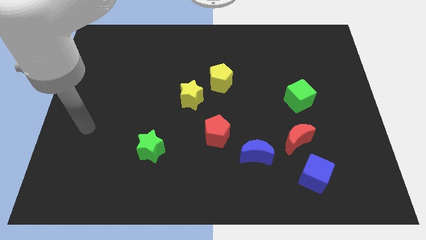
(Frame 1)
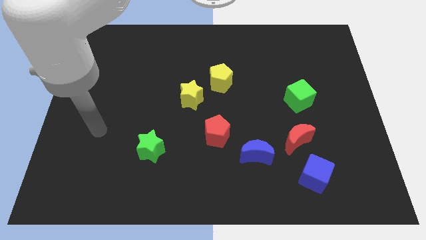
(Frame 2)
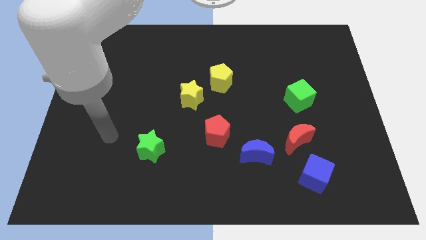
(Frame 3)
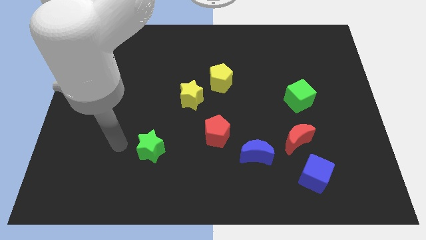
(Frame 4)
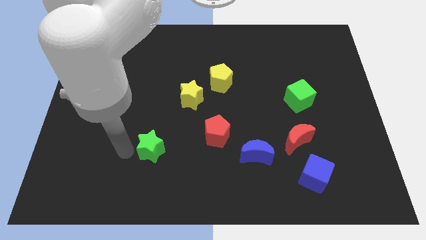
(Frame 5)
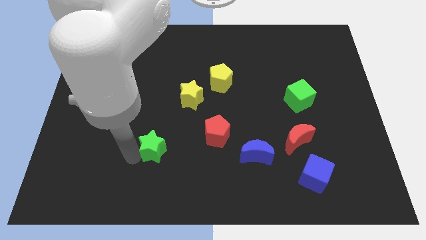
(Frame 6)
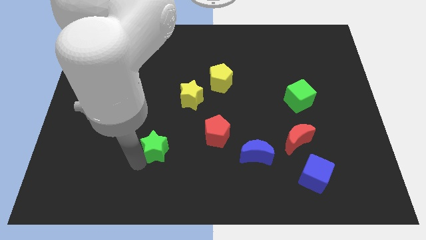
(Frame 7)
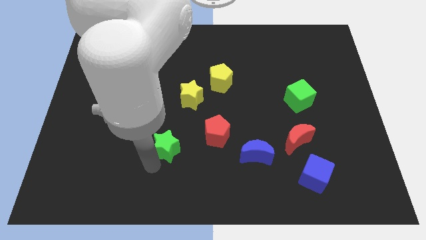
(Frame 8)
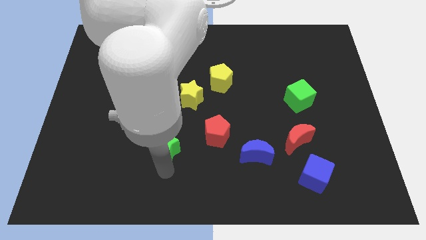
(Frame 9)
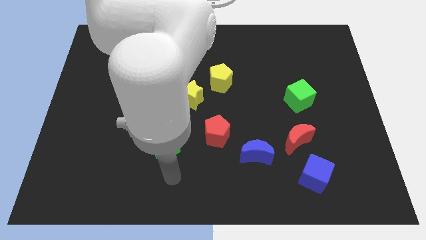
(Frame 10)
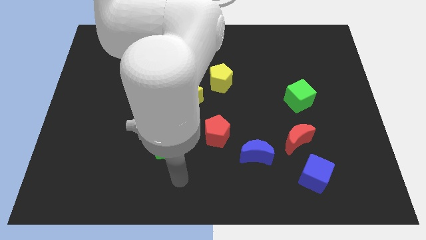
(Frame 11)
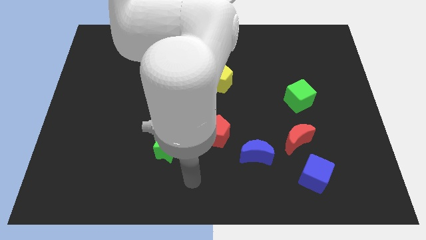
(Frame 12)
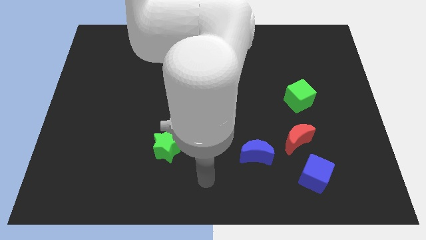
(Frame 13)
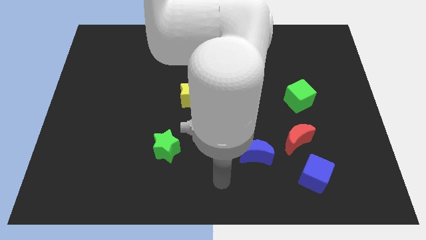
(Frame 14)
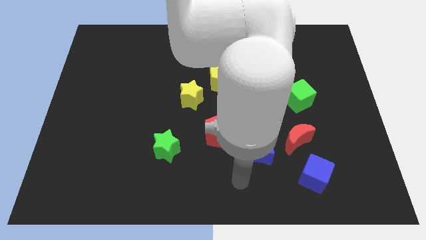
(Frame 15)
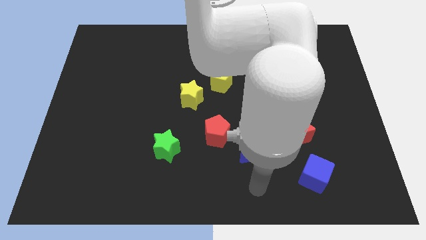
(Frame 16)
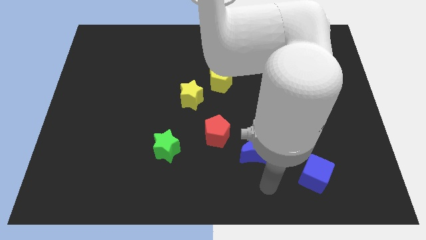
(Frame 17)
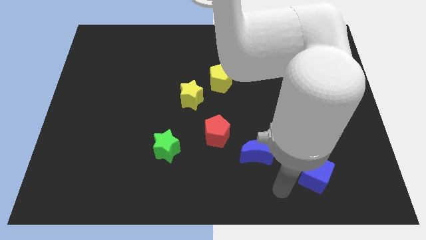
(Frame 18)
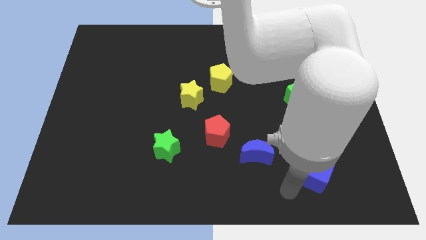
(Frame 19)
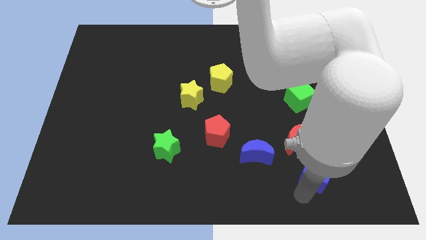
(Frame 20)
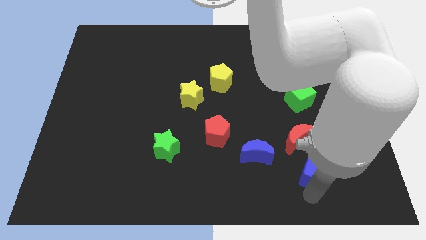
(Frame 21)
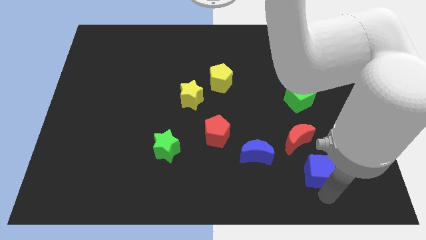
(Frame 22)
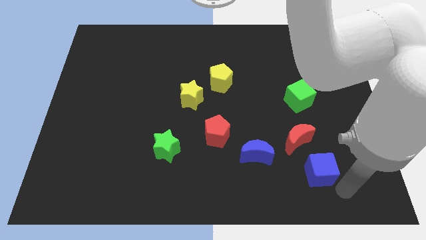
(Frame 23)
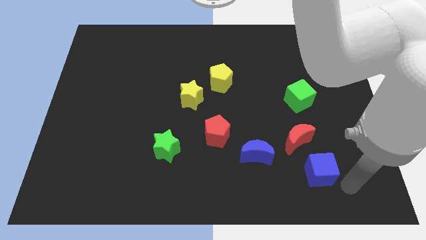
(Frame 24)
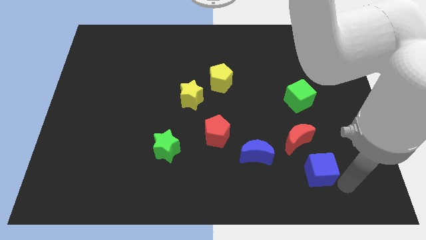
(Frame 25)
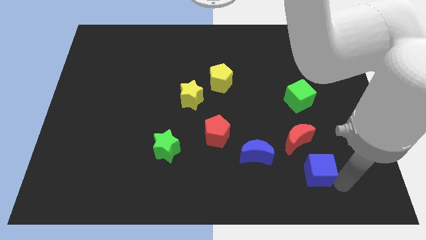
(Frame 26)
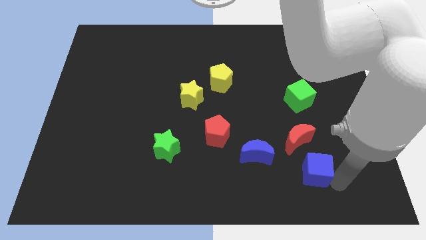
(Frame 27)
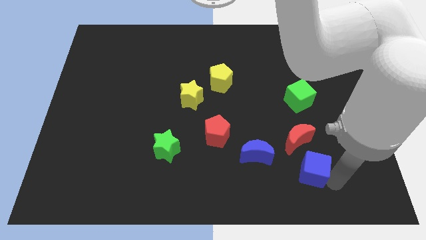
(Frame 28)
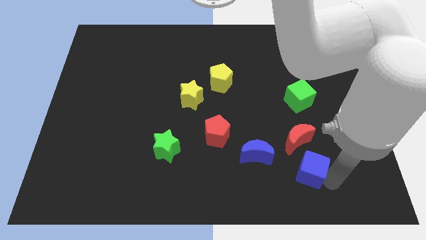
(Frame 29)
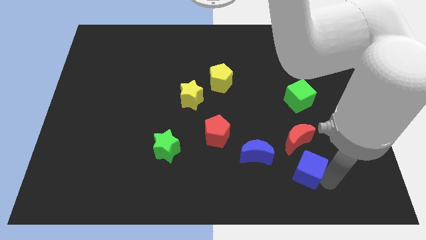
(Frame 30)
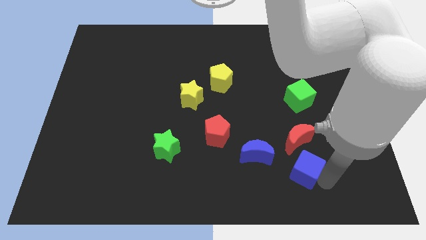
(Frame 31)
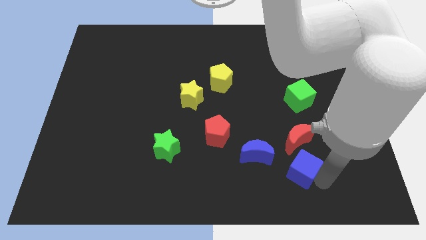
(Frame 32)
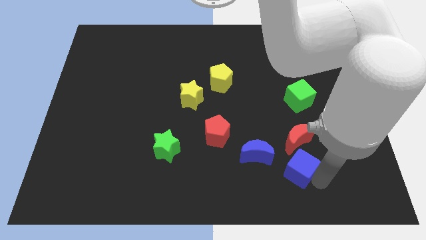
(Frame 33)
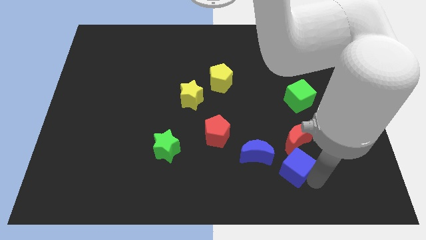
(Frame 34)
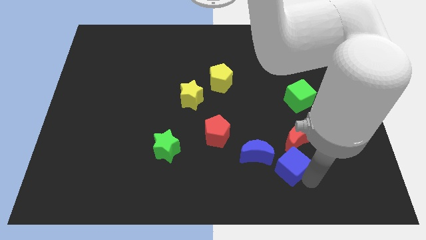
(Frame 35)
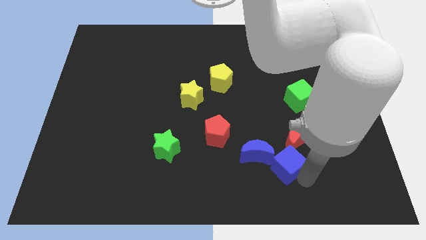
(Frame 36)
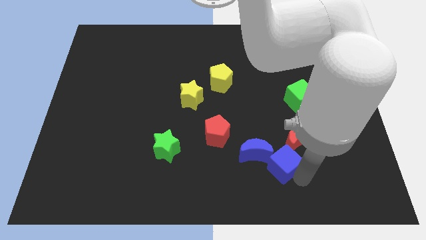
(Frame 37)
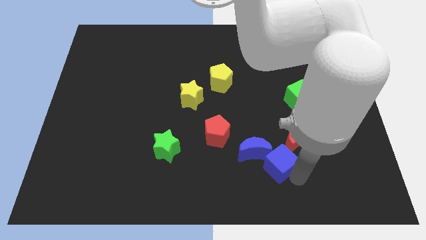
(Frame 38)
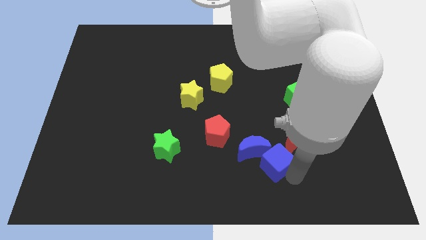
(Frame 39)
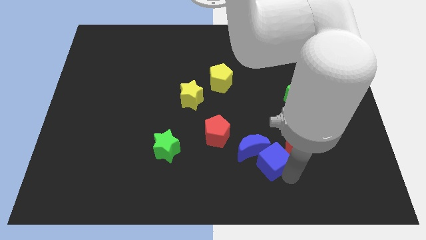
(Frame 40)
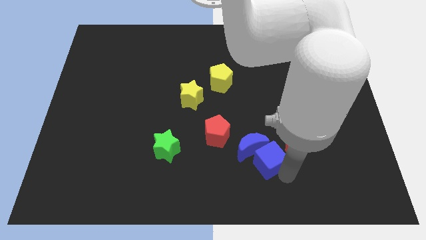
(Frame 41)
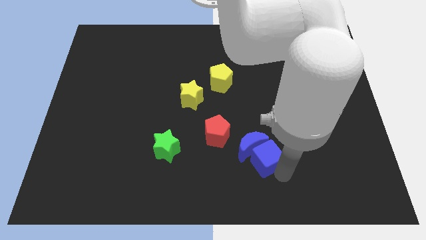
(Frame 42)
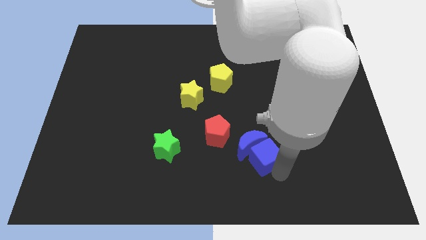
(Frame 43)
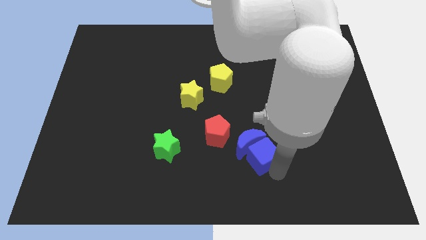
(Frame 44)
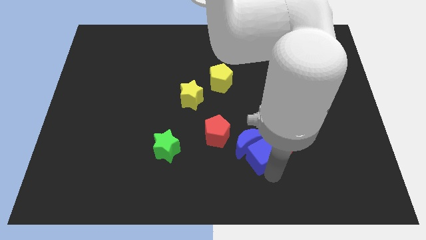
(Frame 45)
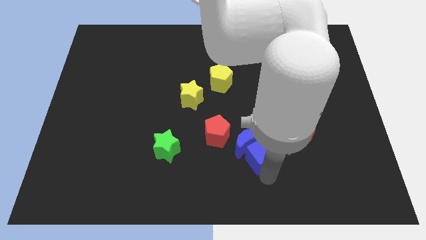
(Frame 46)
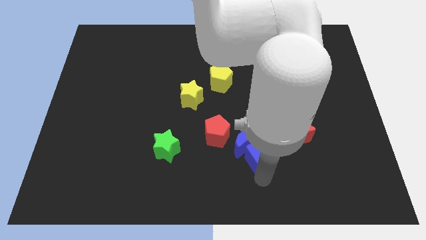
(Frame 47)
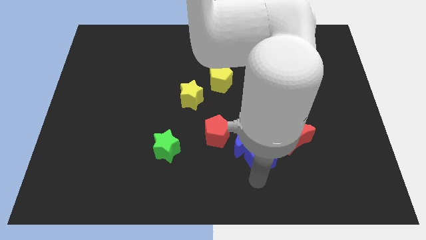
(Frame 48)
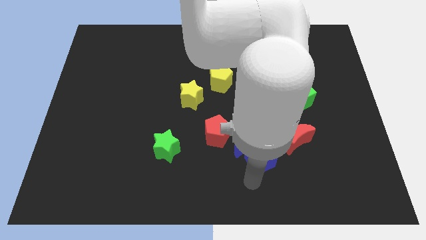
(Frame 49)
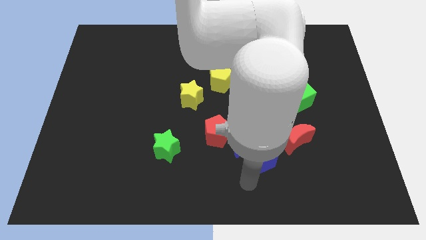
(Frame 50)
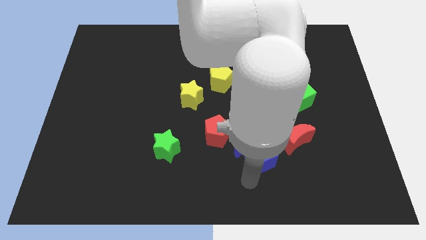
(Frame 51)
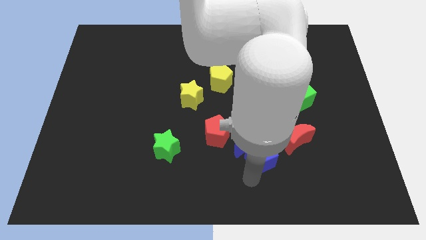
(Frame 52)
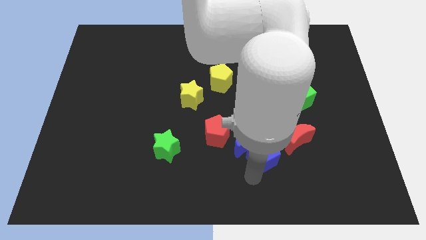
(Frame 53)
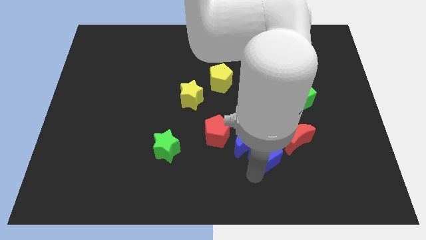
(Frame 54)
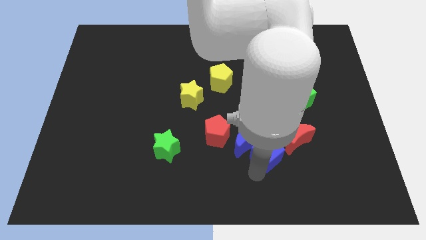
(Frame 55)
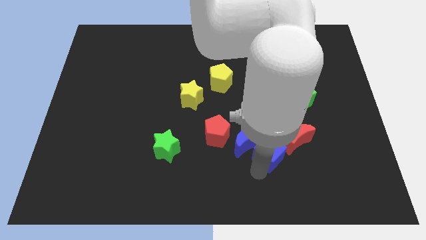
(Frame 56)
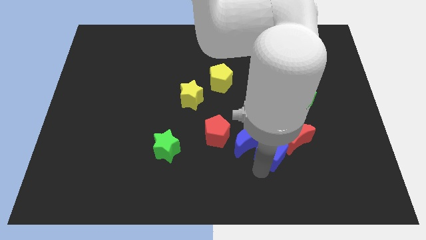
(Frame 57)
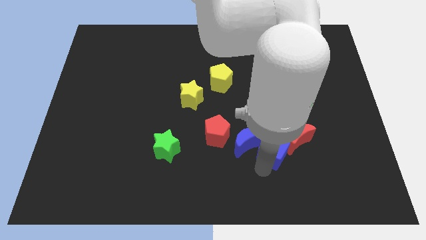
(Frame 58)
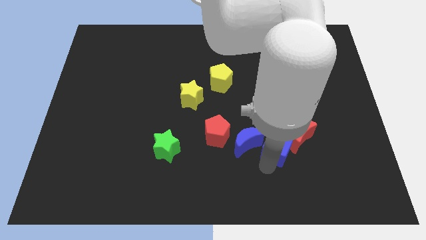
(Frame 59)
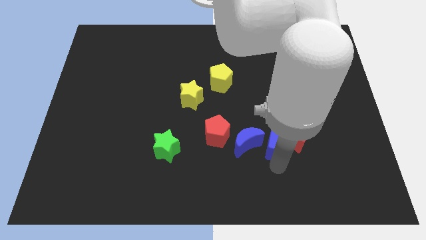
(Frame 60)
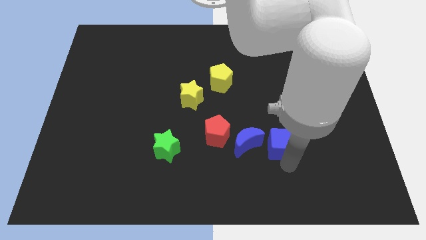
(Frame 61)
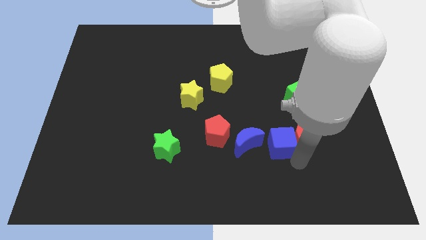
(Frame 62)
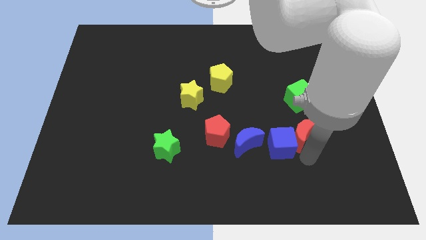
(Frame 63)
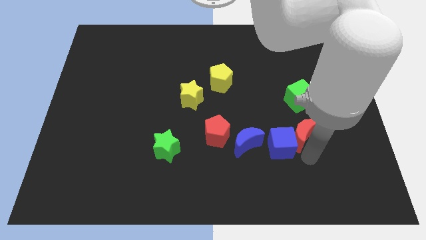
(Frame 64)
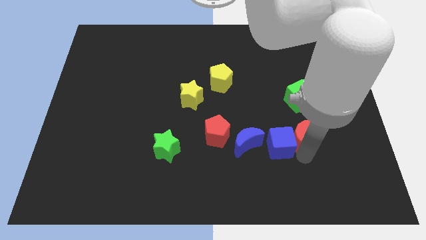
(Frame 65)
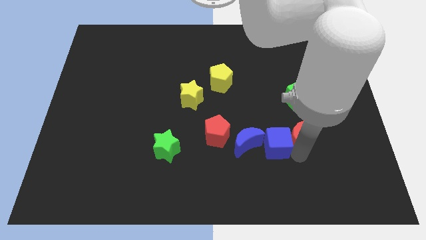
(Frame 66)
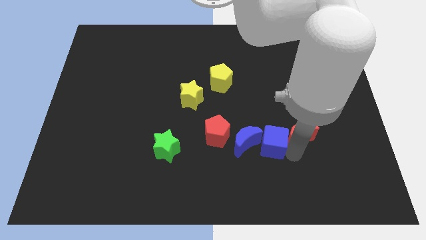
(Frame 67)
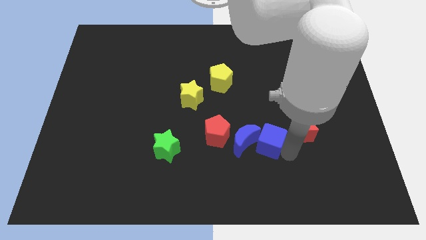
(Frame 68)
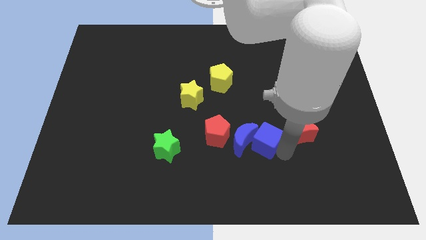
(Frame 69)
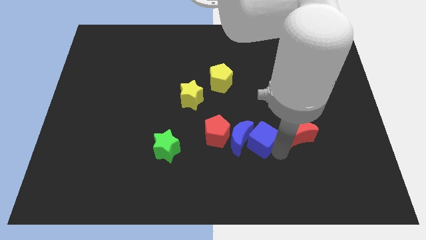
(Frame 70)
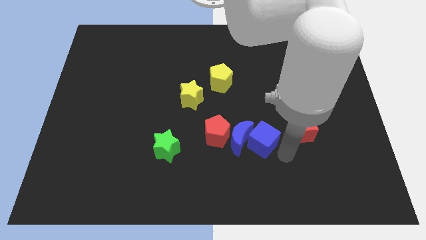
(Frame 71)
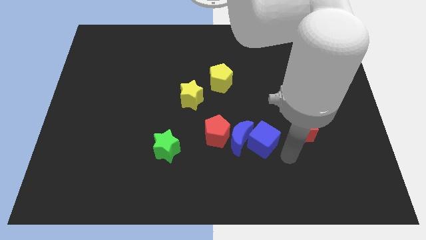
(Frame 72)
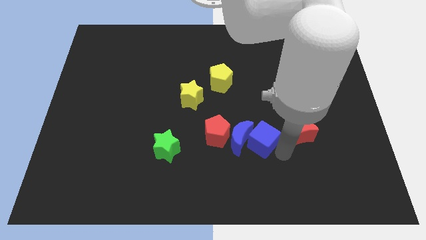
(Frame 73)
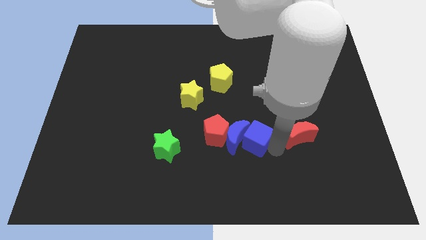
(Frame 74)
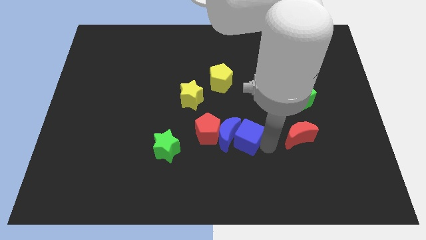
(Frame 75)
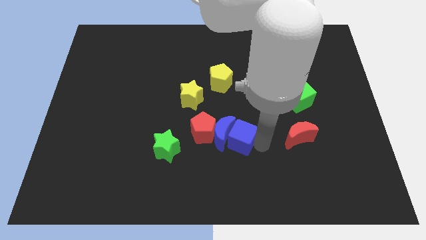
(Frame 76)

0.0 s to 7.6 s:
put the blue cube to the middle of the board
